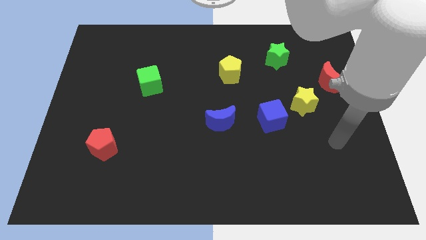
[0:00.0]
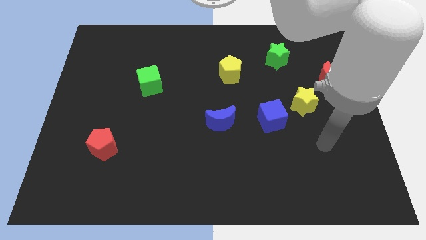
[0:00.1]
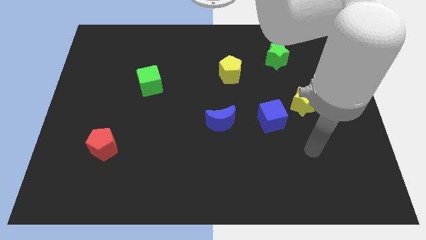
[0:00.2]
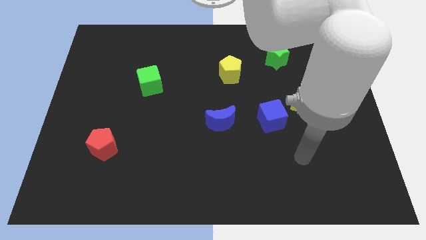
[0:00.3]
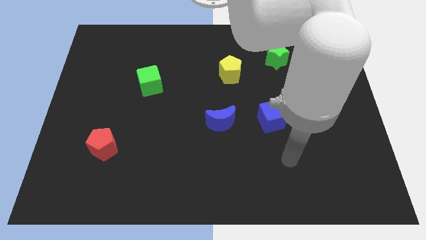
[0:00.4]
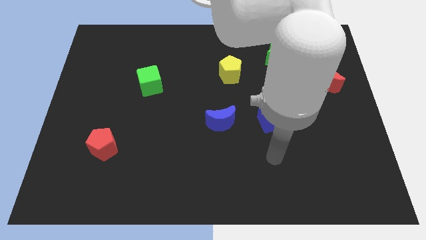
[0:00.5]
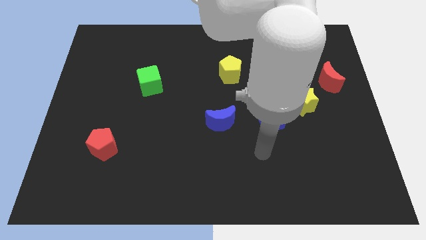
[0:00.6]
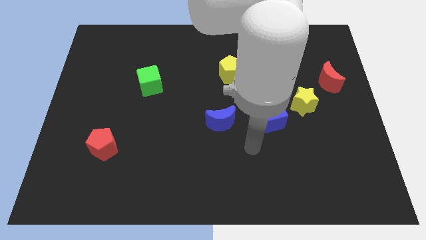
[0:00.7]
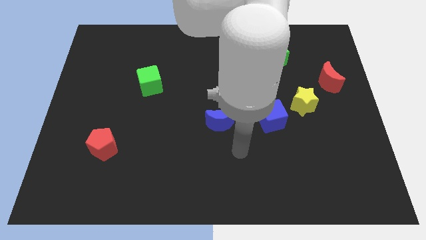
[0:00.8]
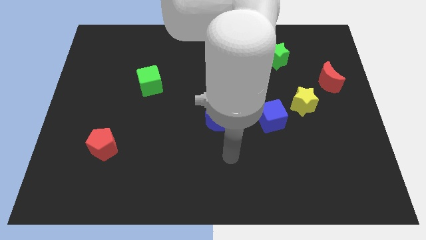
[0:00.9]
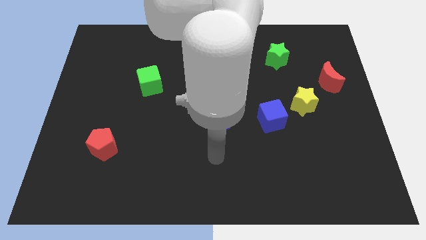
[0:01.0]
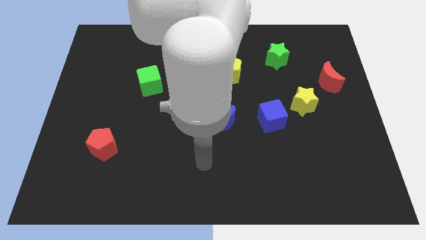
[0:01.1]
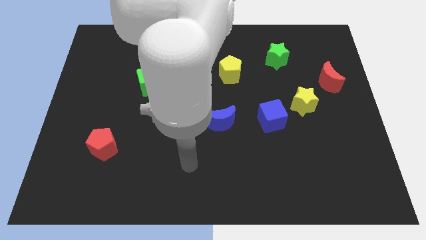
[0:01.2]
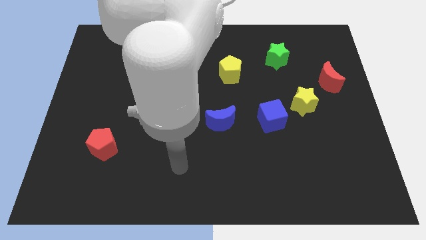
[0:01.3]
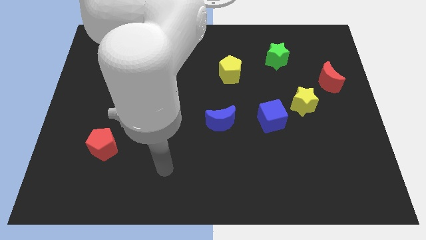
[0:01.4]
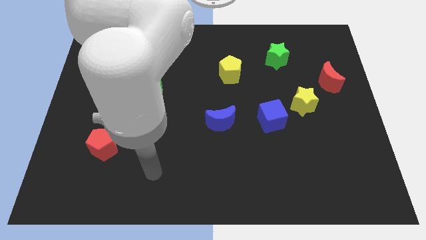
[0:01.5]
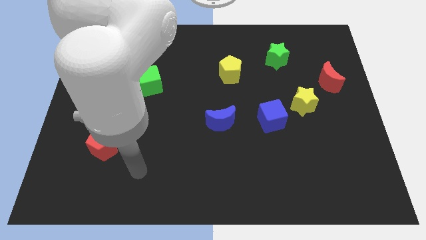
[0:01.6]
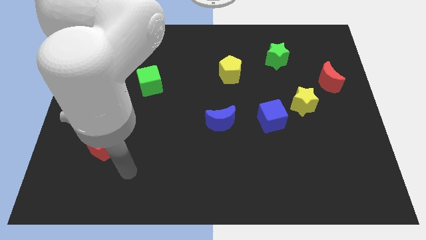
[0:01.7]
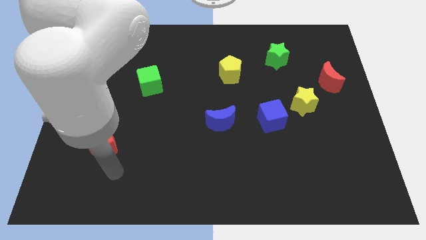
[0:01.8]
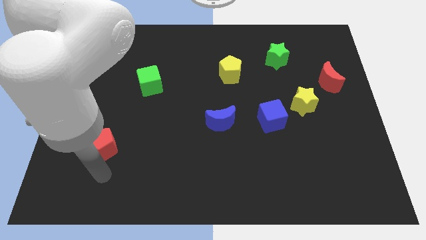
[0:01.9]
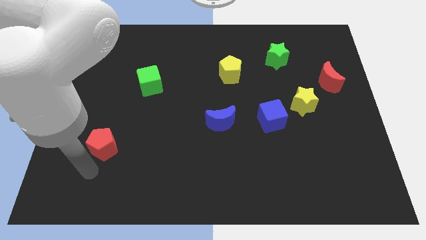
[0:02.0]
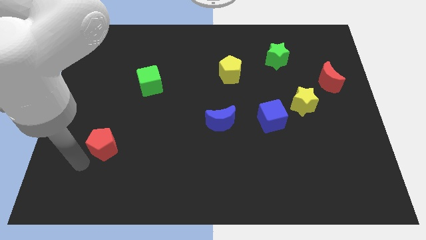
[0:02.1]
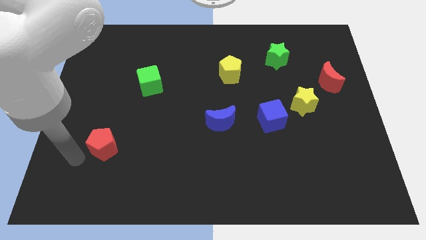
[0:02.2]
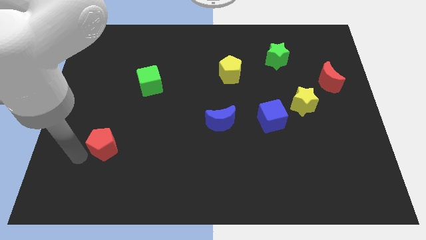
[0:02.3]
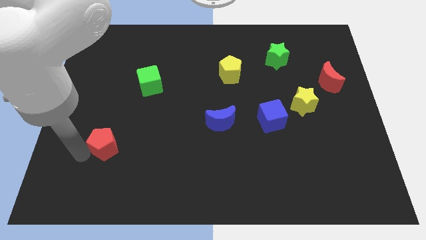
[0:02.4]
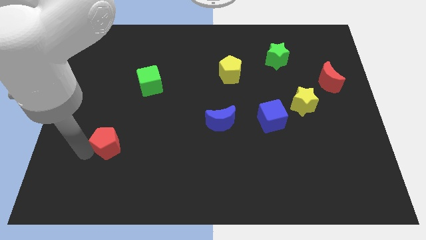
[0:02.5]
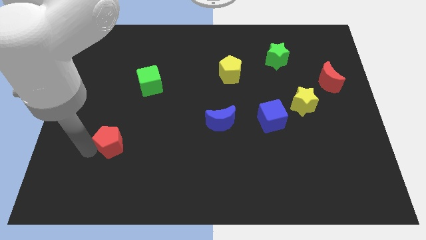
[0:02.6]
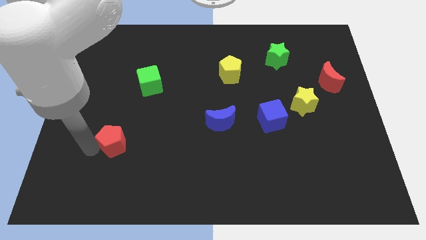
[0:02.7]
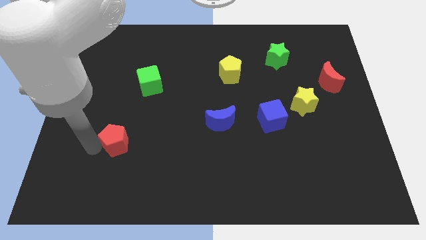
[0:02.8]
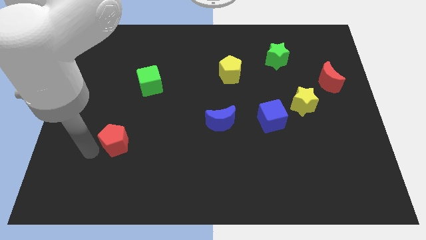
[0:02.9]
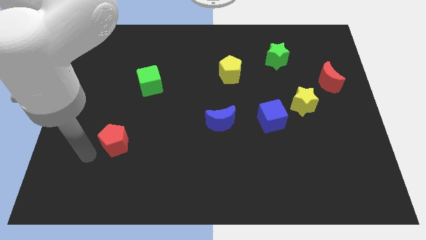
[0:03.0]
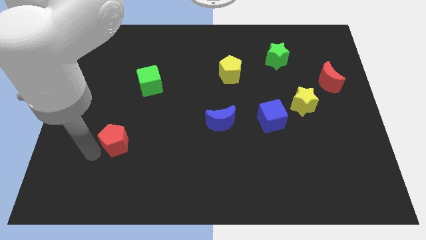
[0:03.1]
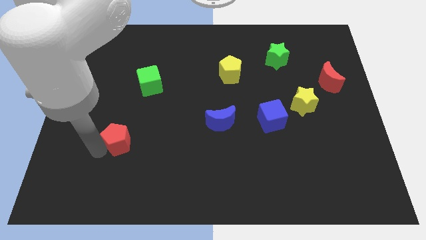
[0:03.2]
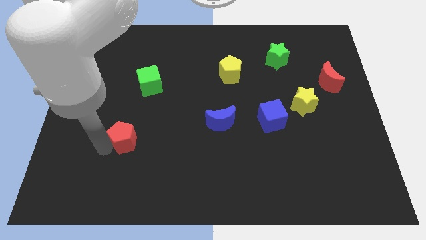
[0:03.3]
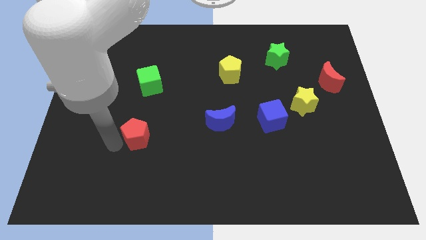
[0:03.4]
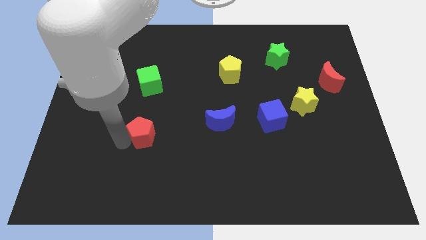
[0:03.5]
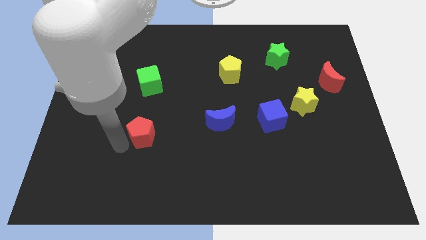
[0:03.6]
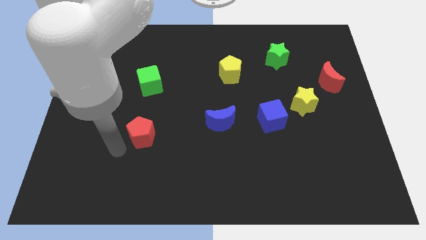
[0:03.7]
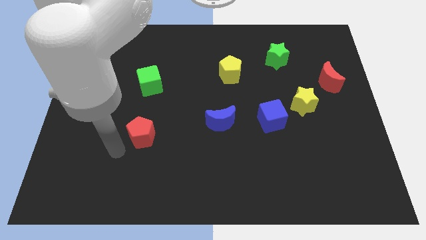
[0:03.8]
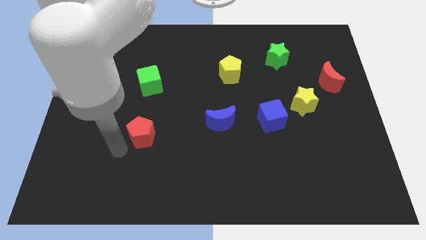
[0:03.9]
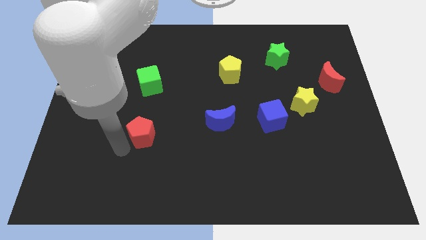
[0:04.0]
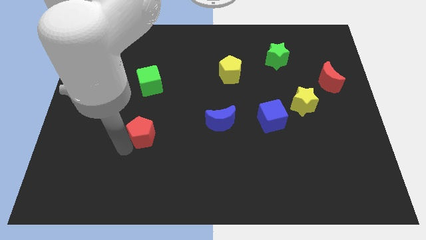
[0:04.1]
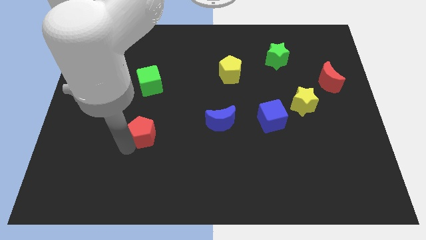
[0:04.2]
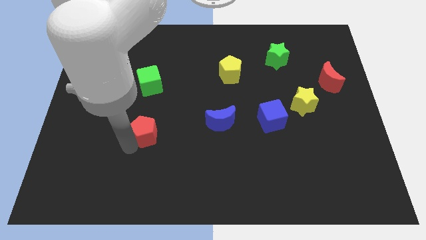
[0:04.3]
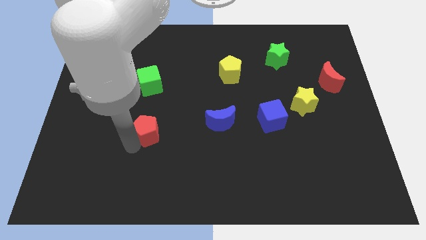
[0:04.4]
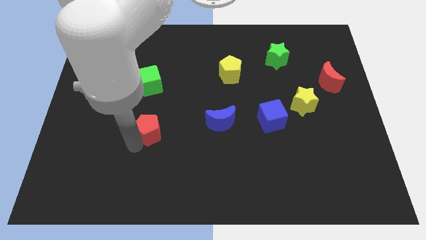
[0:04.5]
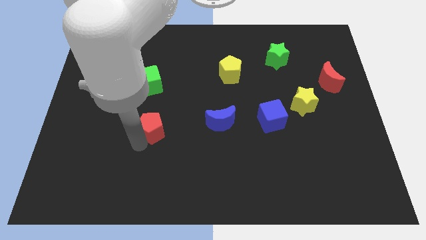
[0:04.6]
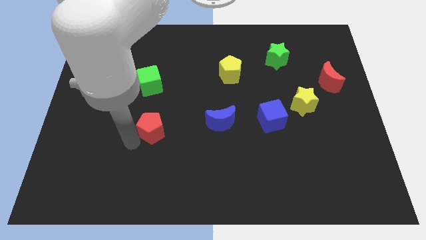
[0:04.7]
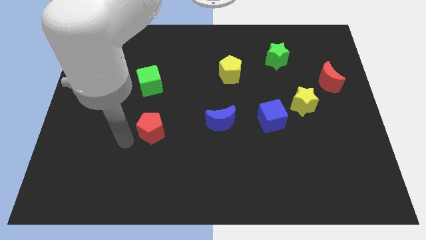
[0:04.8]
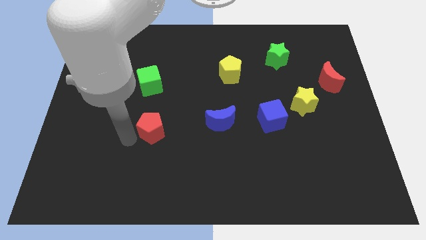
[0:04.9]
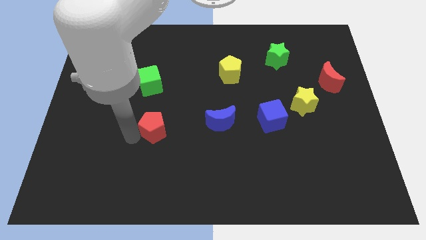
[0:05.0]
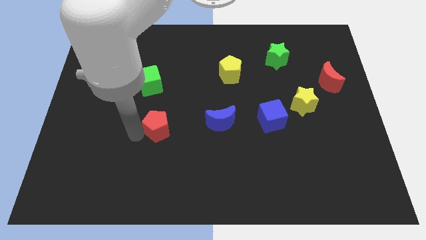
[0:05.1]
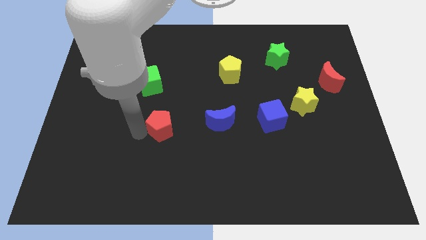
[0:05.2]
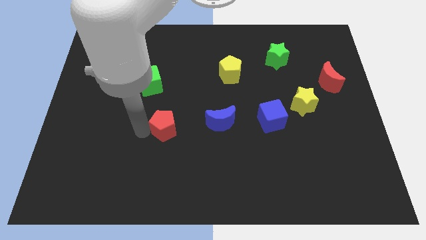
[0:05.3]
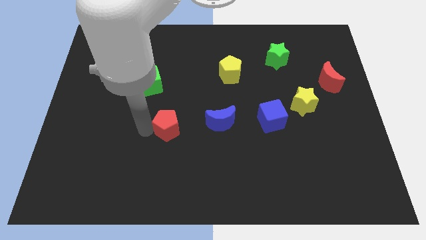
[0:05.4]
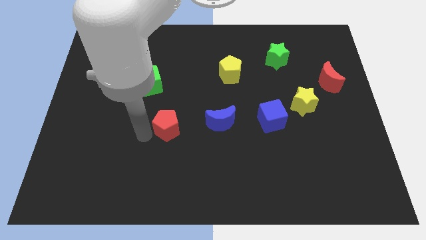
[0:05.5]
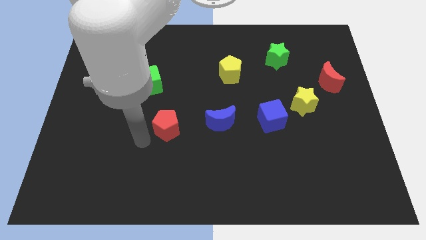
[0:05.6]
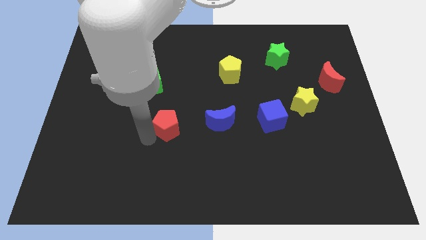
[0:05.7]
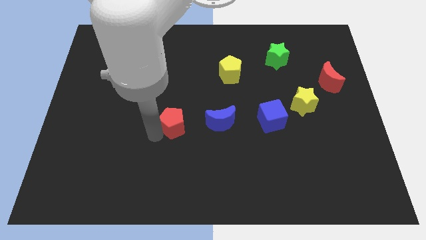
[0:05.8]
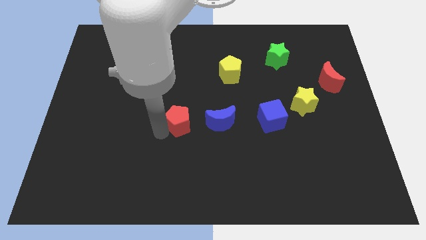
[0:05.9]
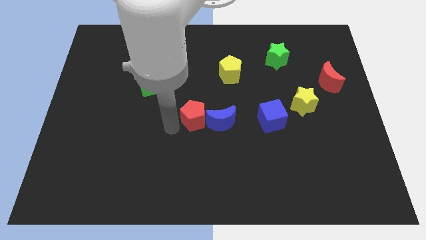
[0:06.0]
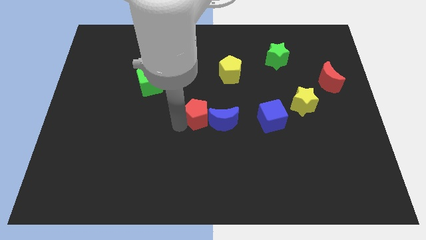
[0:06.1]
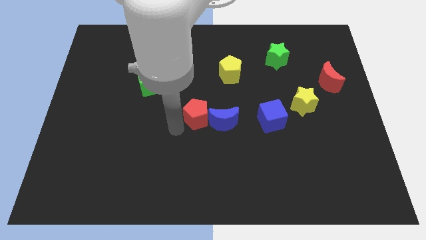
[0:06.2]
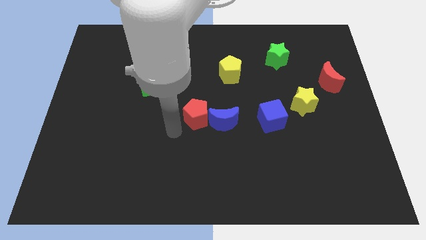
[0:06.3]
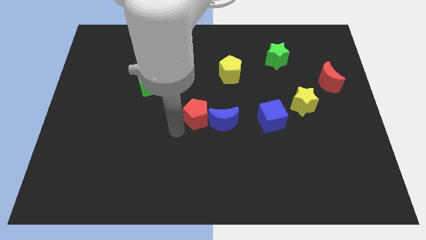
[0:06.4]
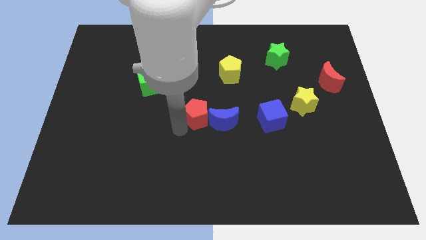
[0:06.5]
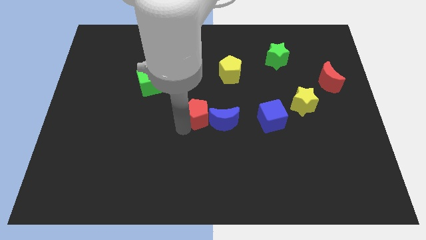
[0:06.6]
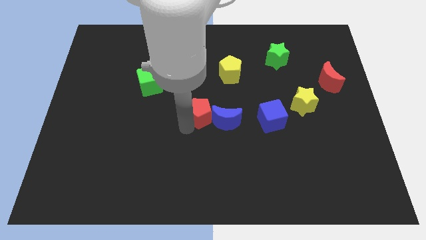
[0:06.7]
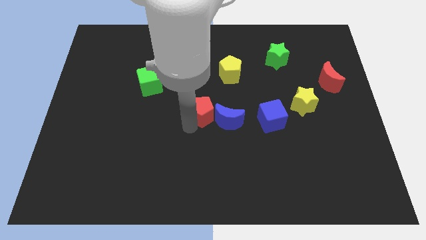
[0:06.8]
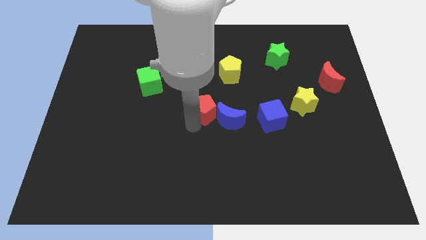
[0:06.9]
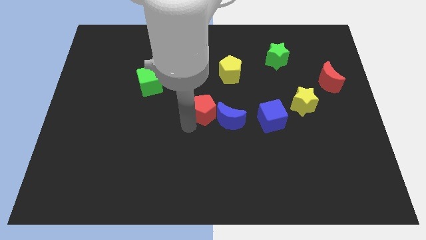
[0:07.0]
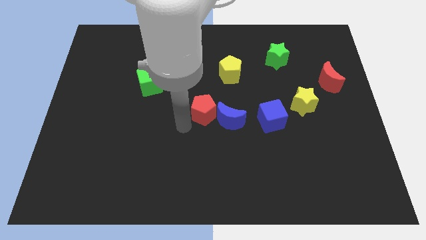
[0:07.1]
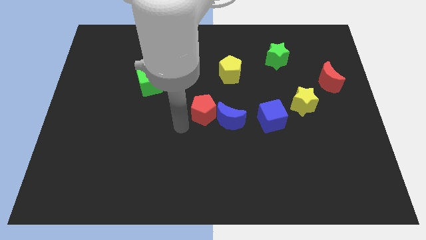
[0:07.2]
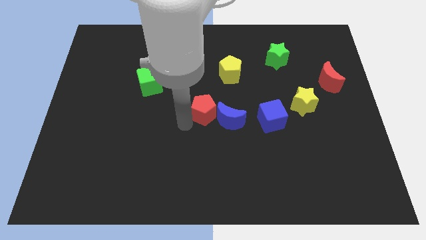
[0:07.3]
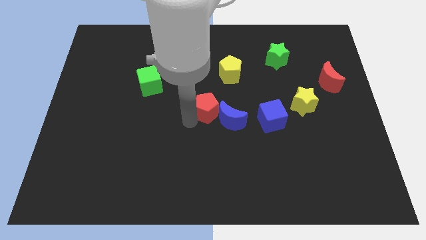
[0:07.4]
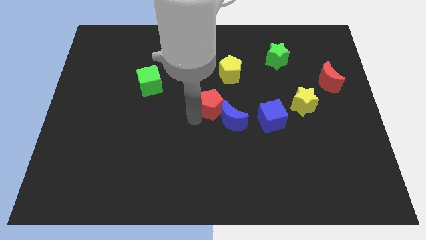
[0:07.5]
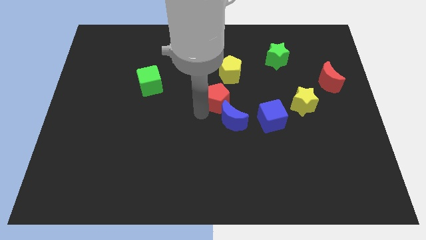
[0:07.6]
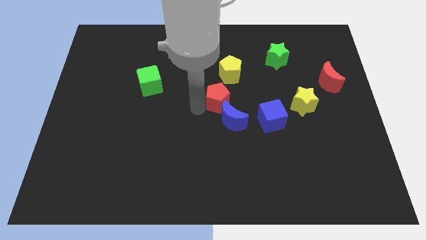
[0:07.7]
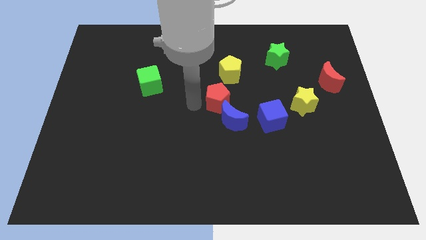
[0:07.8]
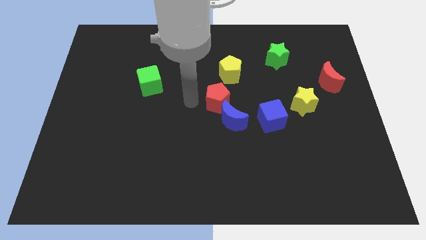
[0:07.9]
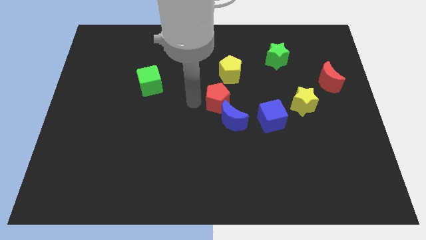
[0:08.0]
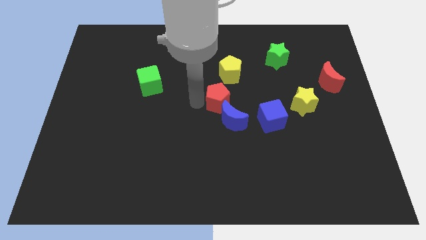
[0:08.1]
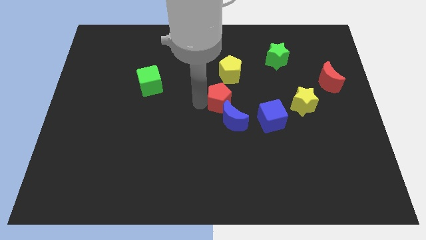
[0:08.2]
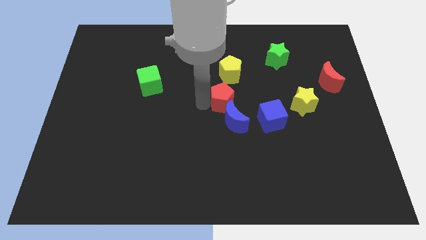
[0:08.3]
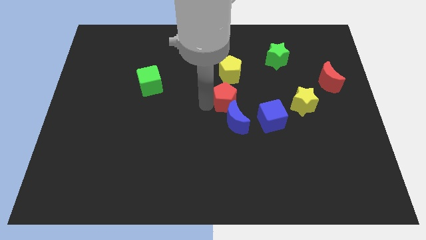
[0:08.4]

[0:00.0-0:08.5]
put the red pentagon to the top left of the blue cube
